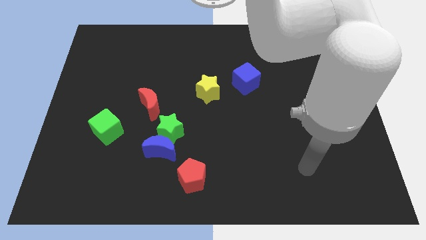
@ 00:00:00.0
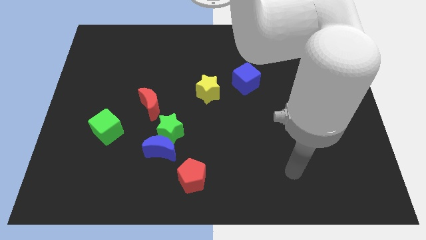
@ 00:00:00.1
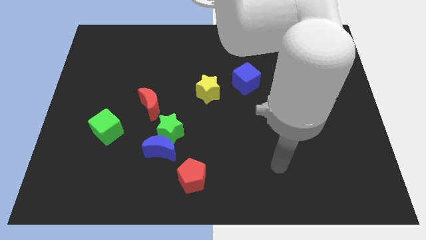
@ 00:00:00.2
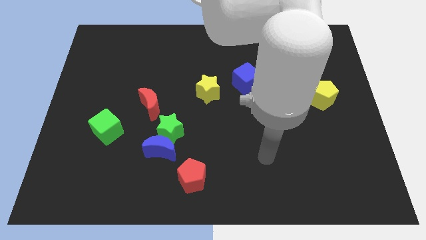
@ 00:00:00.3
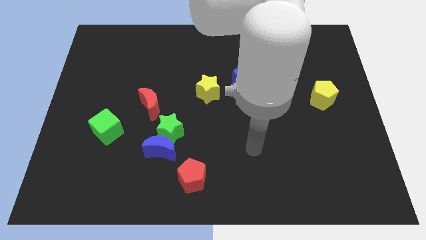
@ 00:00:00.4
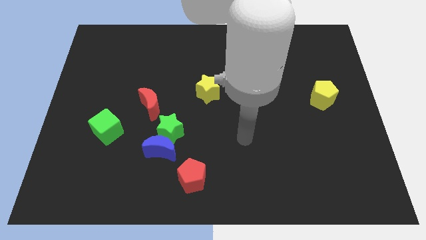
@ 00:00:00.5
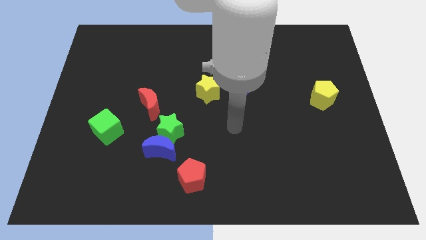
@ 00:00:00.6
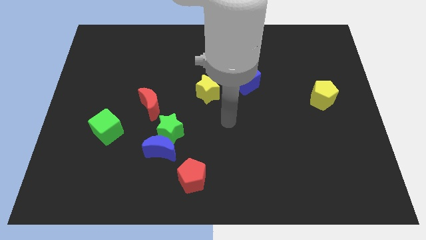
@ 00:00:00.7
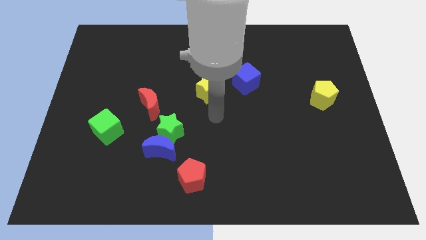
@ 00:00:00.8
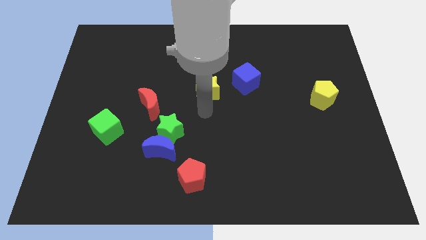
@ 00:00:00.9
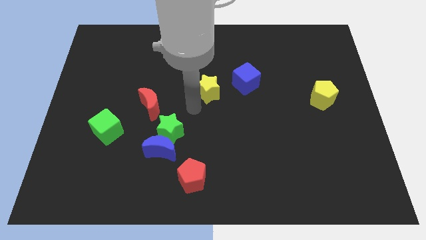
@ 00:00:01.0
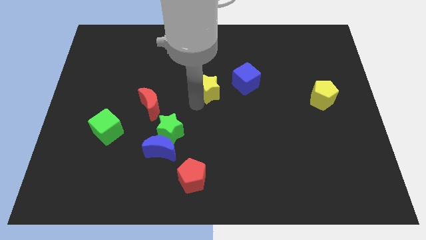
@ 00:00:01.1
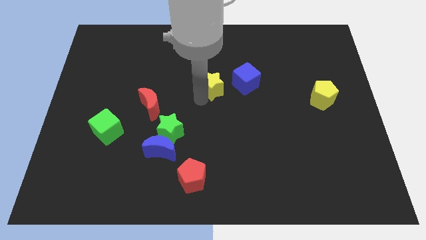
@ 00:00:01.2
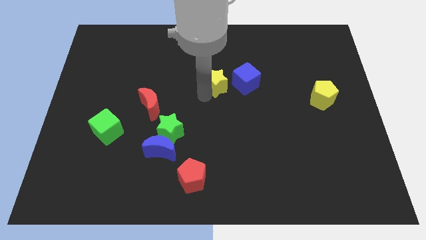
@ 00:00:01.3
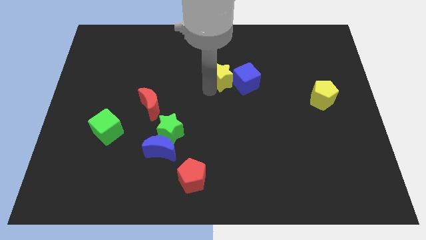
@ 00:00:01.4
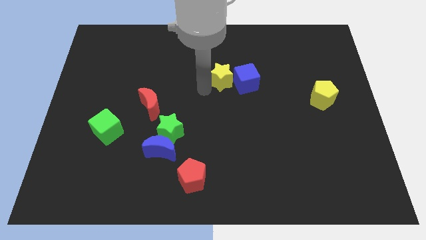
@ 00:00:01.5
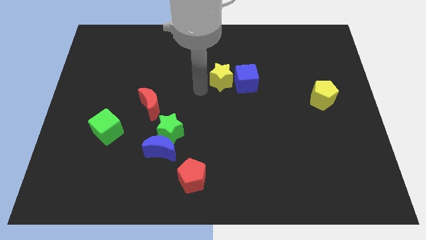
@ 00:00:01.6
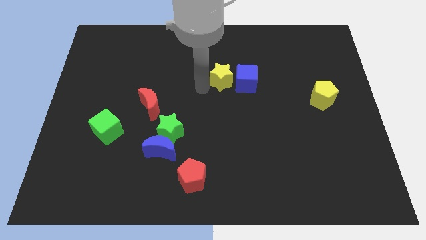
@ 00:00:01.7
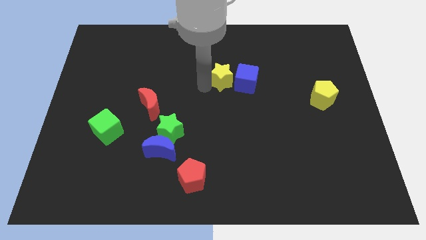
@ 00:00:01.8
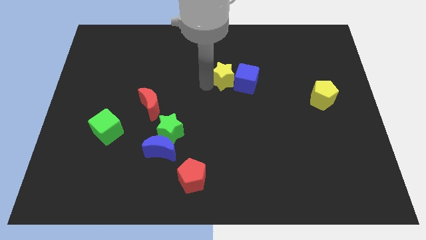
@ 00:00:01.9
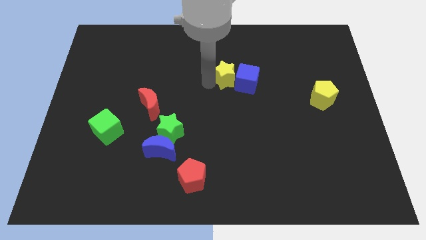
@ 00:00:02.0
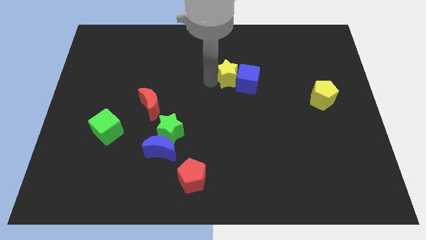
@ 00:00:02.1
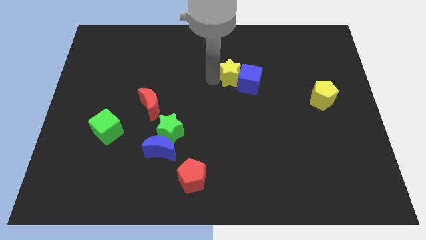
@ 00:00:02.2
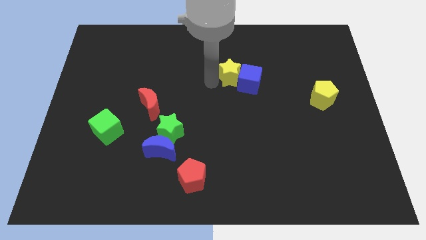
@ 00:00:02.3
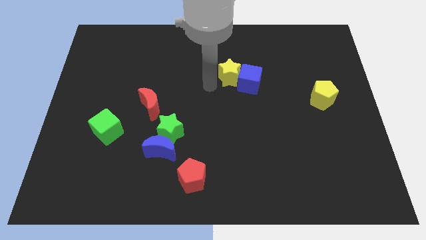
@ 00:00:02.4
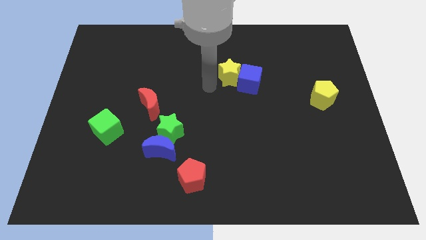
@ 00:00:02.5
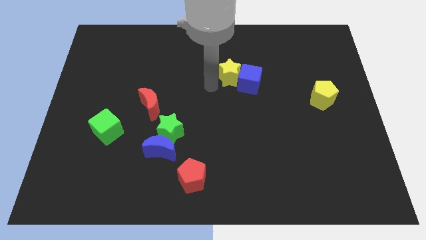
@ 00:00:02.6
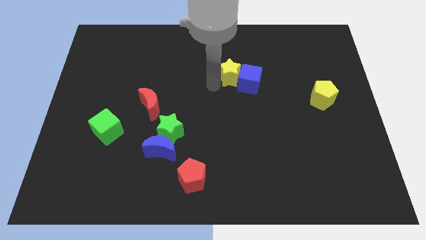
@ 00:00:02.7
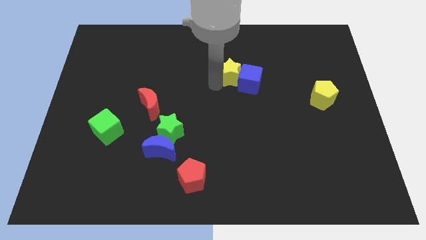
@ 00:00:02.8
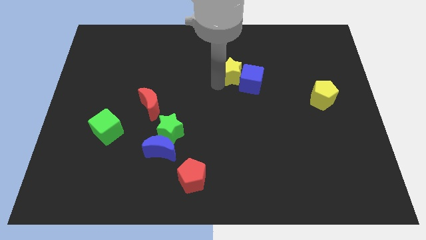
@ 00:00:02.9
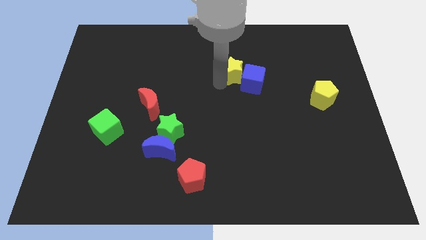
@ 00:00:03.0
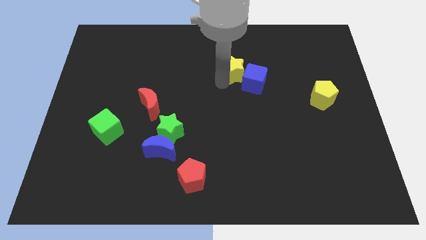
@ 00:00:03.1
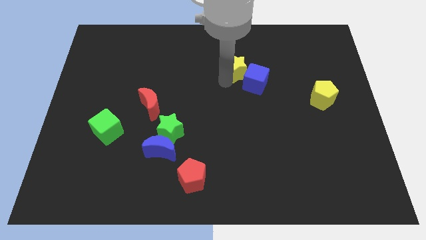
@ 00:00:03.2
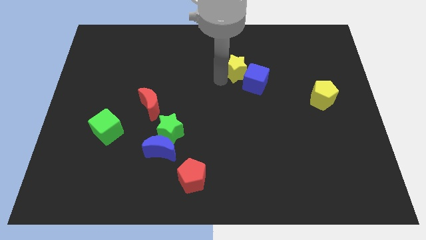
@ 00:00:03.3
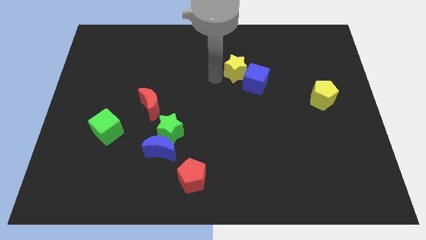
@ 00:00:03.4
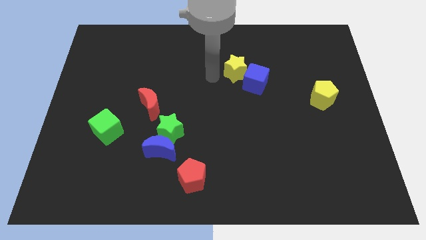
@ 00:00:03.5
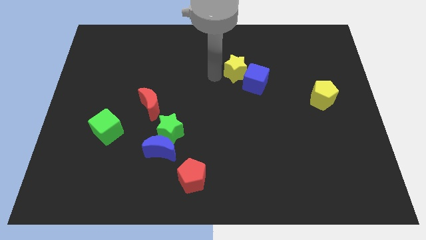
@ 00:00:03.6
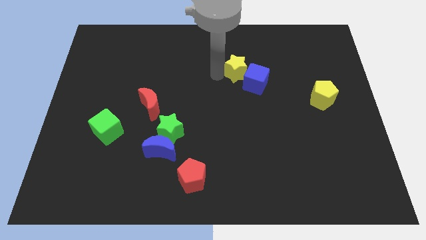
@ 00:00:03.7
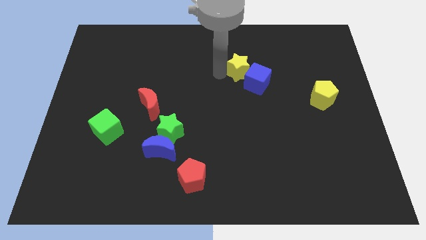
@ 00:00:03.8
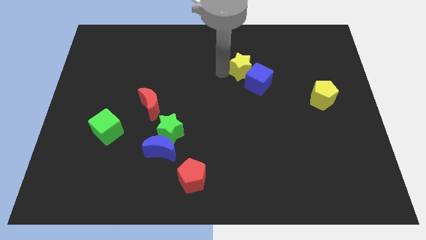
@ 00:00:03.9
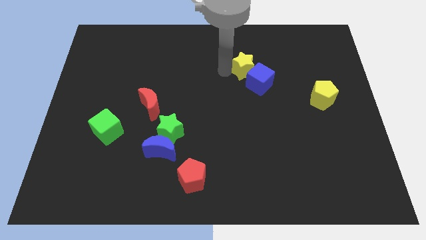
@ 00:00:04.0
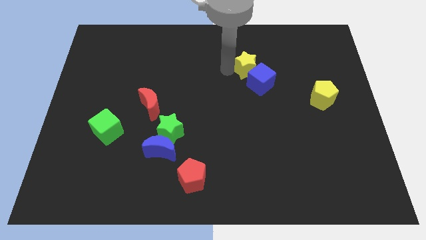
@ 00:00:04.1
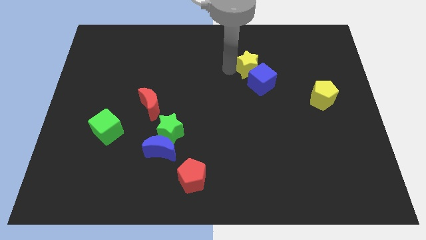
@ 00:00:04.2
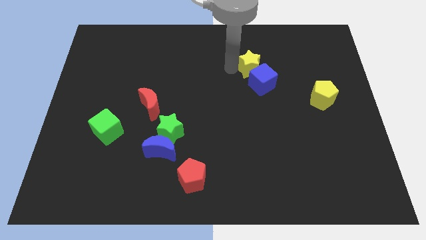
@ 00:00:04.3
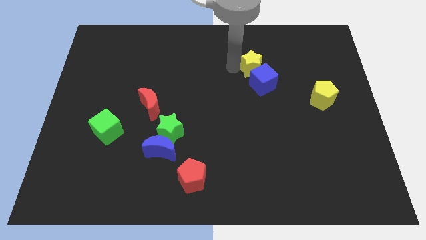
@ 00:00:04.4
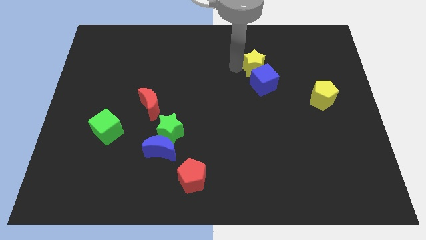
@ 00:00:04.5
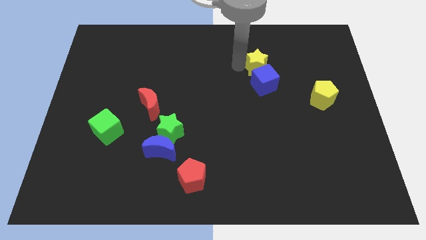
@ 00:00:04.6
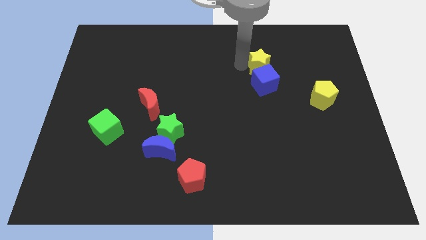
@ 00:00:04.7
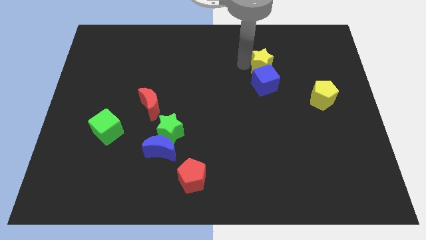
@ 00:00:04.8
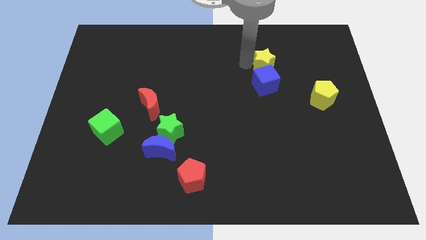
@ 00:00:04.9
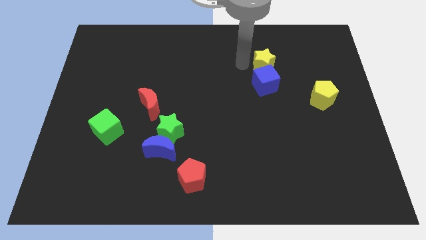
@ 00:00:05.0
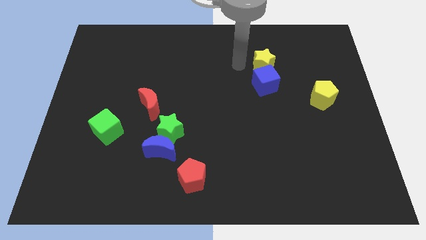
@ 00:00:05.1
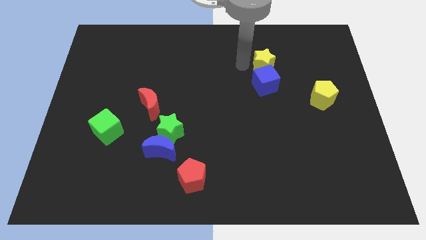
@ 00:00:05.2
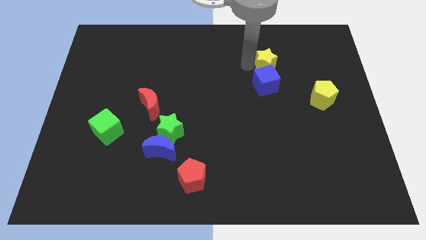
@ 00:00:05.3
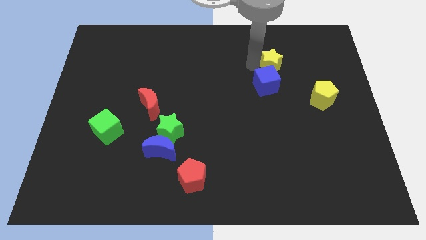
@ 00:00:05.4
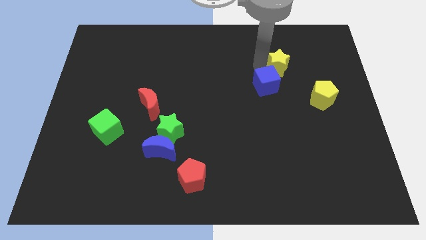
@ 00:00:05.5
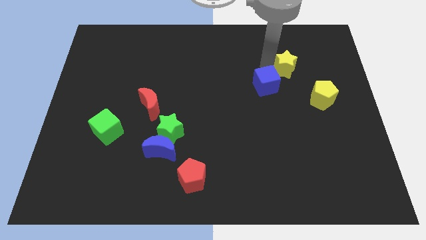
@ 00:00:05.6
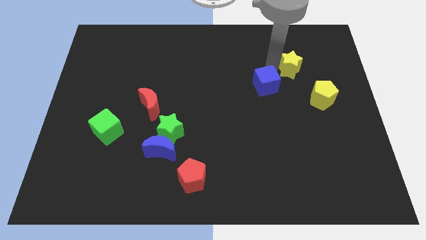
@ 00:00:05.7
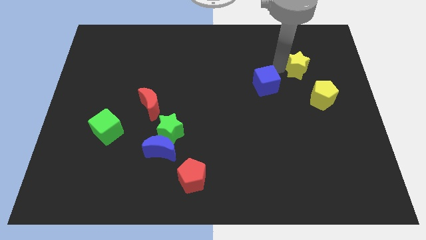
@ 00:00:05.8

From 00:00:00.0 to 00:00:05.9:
slide the yellow star above the yellow pentagon

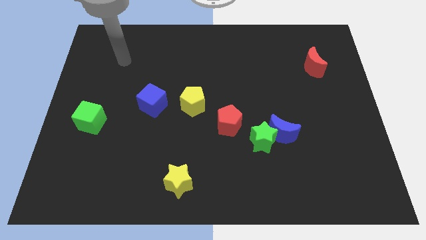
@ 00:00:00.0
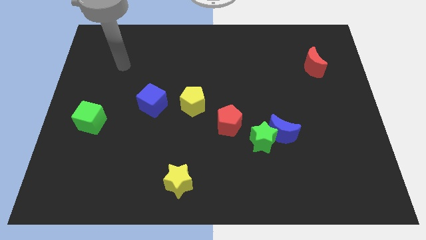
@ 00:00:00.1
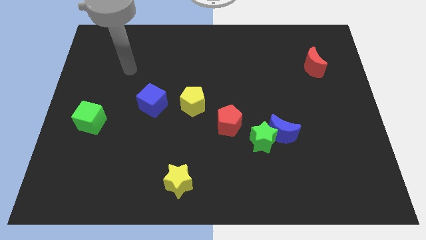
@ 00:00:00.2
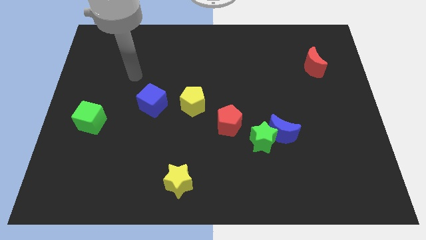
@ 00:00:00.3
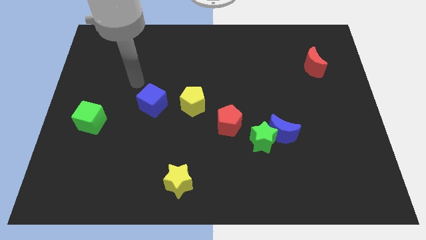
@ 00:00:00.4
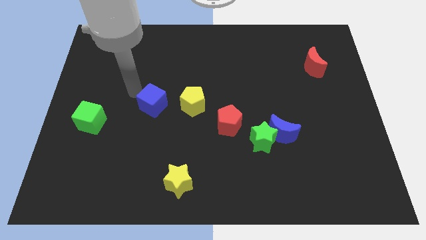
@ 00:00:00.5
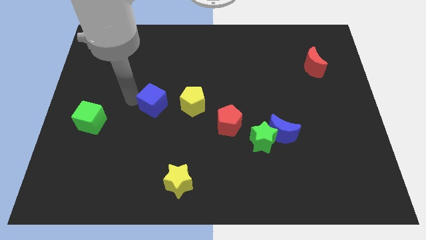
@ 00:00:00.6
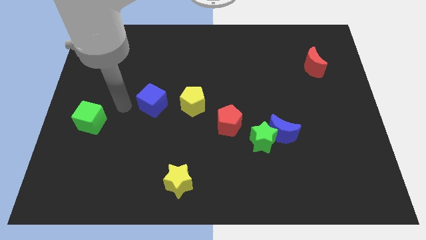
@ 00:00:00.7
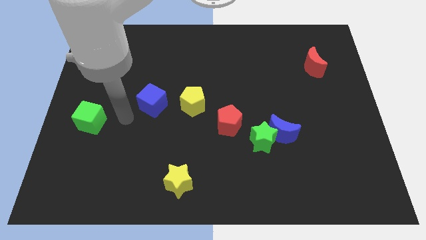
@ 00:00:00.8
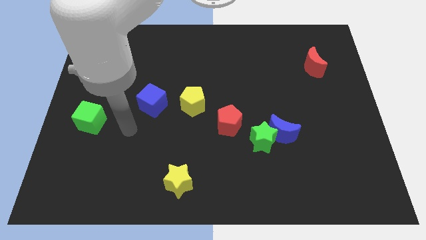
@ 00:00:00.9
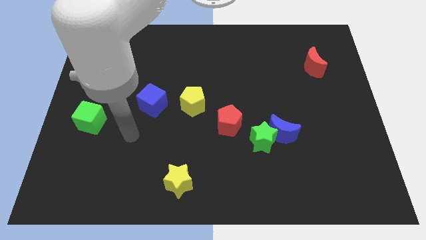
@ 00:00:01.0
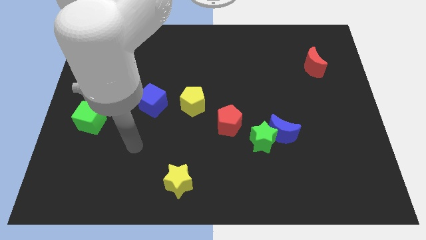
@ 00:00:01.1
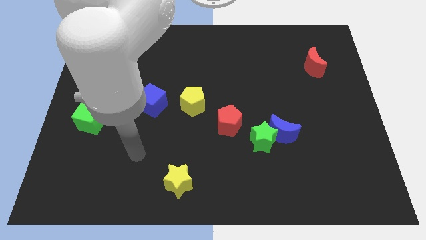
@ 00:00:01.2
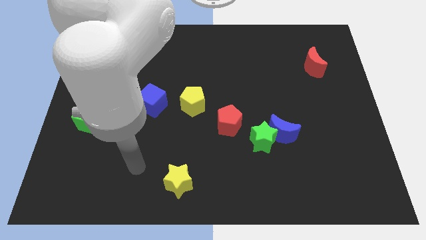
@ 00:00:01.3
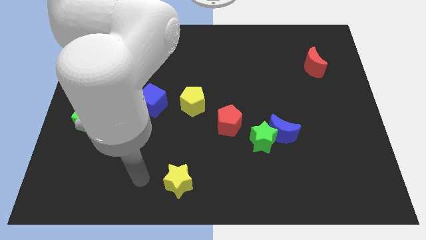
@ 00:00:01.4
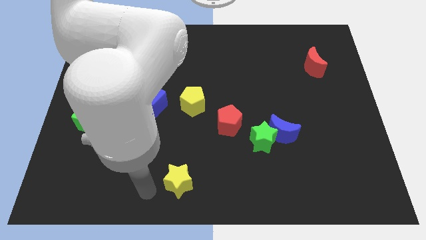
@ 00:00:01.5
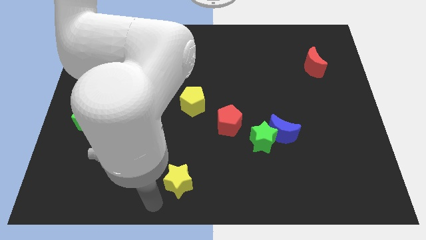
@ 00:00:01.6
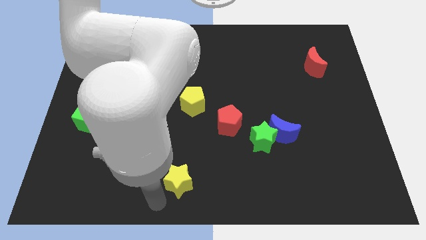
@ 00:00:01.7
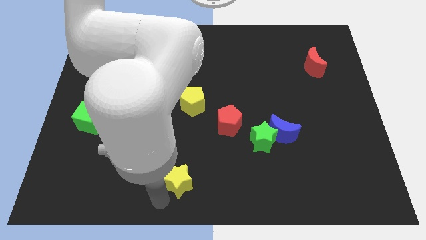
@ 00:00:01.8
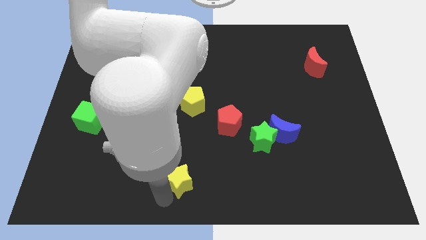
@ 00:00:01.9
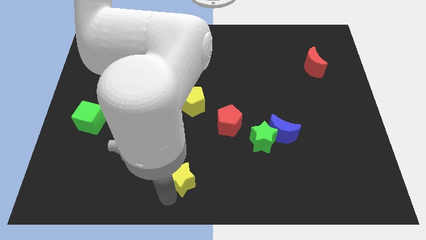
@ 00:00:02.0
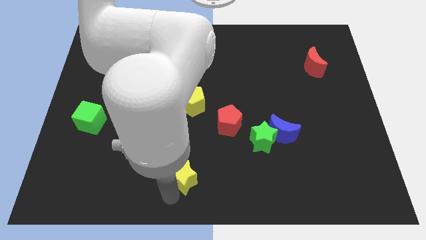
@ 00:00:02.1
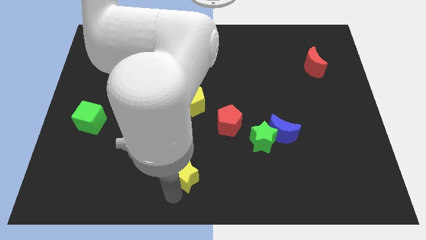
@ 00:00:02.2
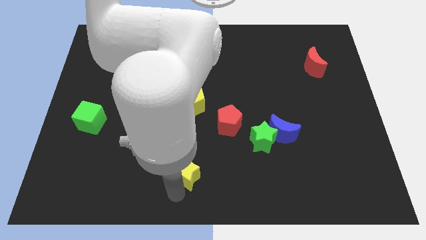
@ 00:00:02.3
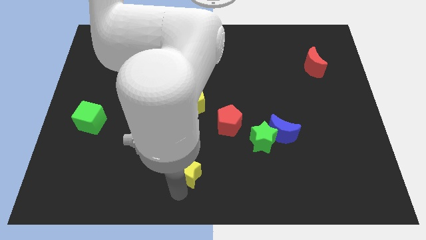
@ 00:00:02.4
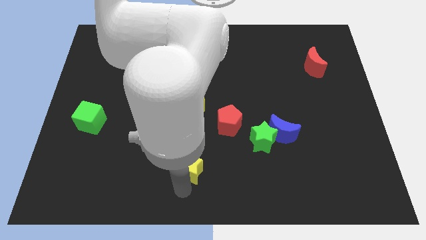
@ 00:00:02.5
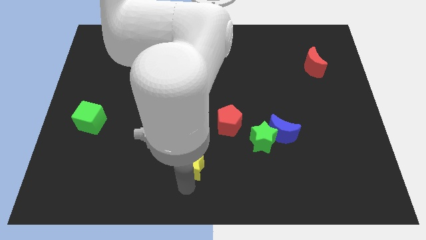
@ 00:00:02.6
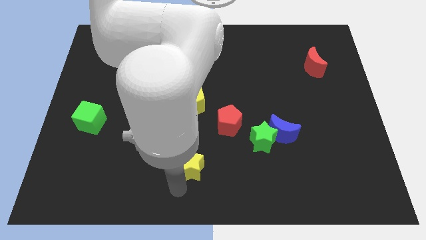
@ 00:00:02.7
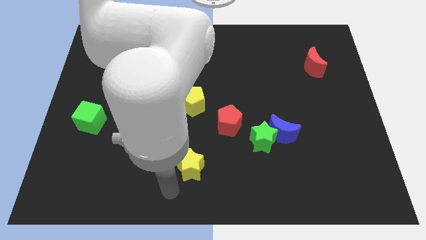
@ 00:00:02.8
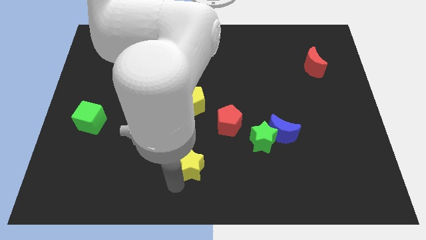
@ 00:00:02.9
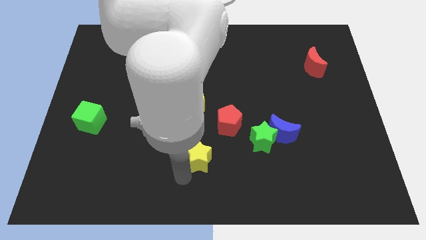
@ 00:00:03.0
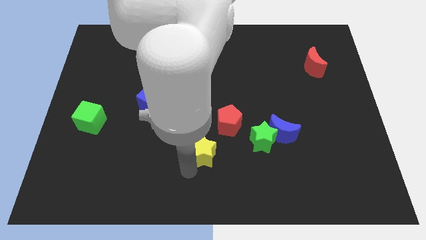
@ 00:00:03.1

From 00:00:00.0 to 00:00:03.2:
put the yellow star to the left side of the green star
